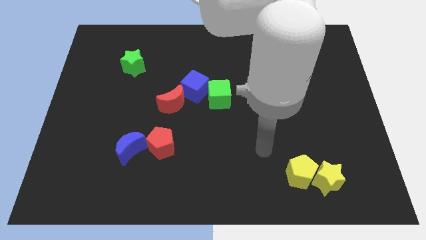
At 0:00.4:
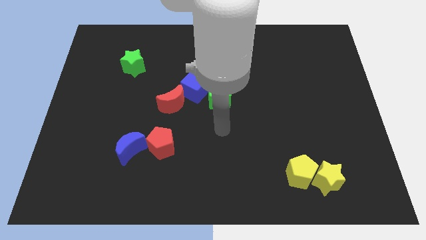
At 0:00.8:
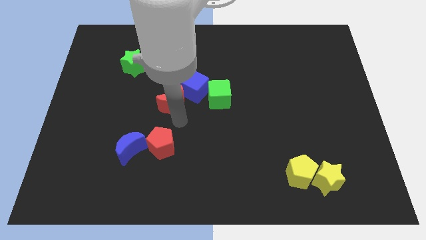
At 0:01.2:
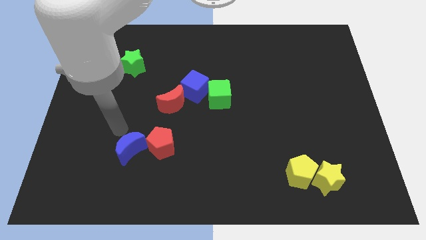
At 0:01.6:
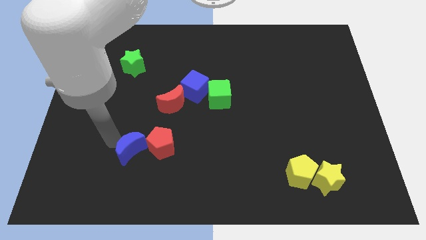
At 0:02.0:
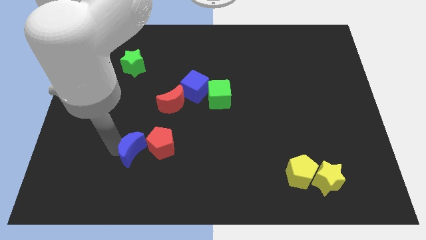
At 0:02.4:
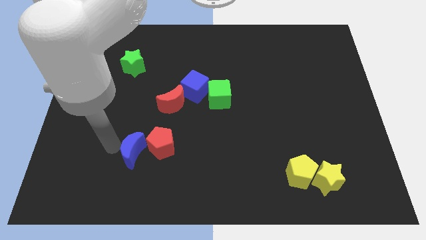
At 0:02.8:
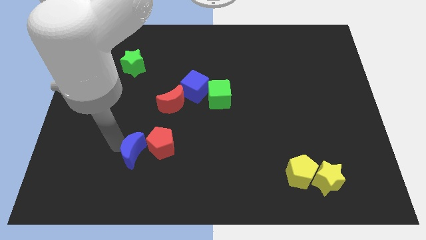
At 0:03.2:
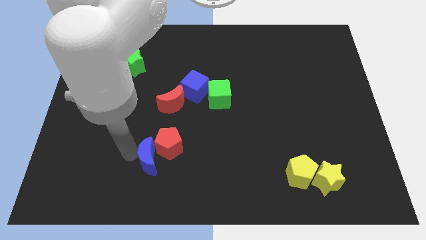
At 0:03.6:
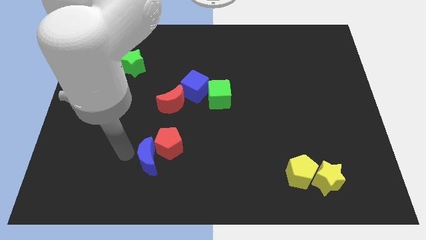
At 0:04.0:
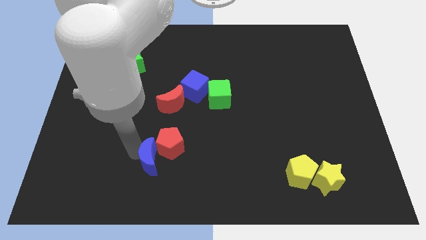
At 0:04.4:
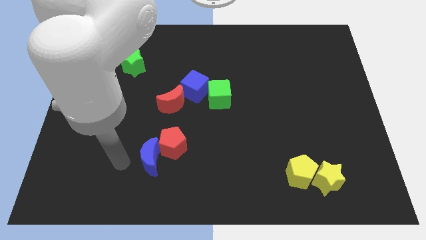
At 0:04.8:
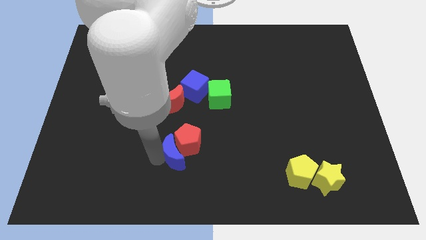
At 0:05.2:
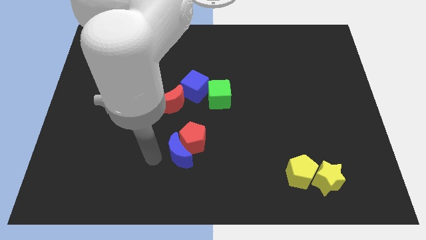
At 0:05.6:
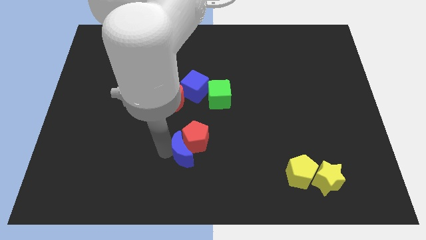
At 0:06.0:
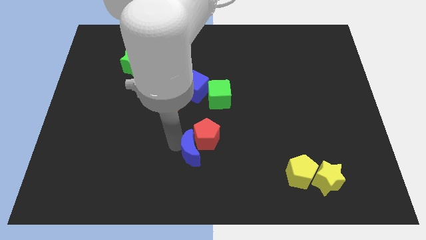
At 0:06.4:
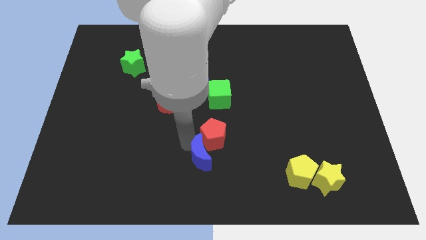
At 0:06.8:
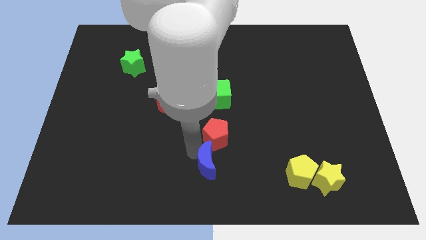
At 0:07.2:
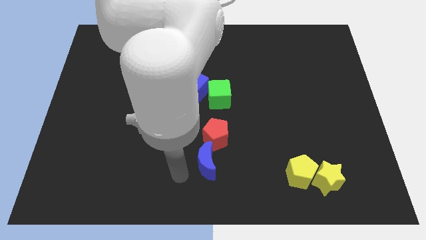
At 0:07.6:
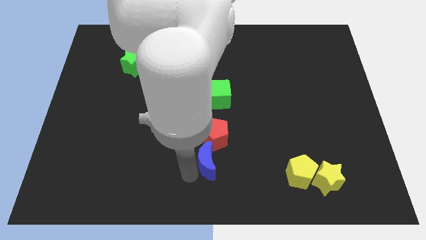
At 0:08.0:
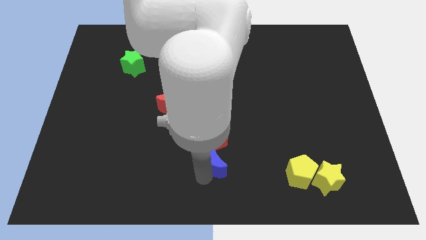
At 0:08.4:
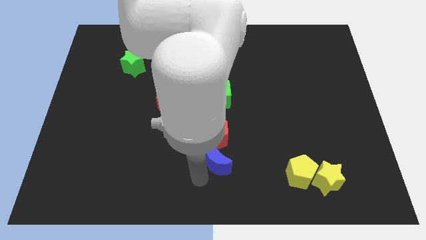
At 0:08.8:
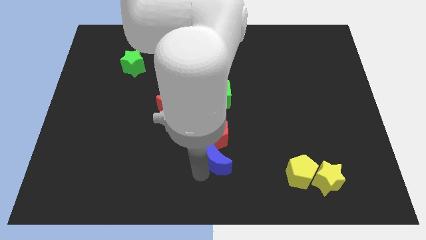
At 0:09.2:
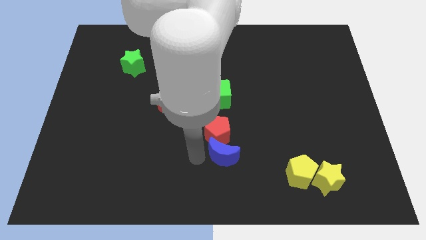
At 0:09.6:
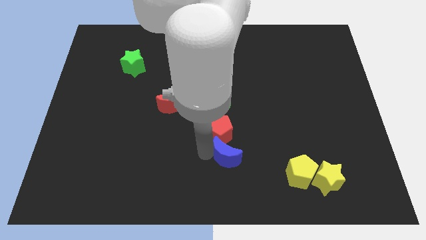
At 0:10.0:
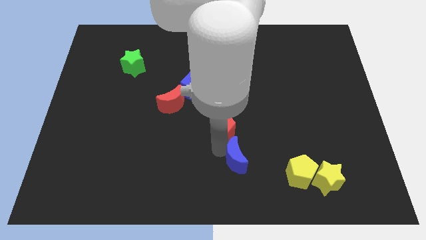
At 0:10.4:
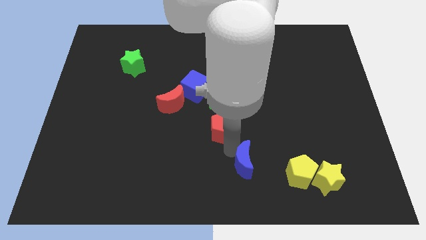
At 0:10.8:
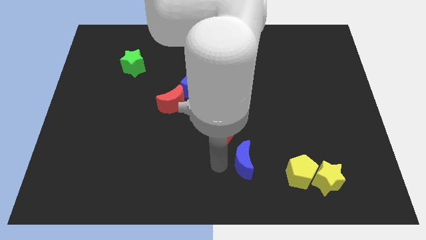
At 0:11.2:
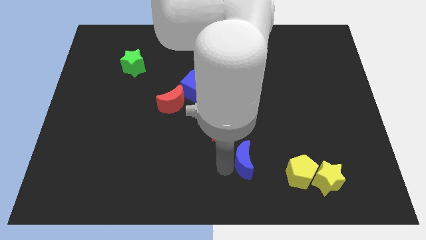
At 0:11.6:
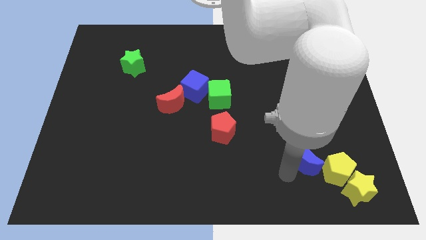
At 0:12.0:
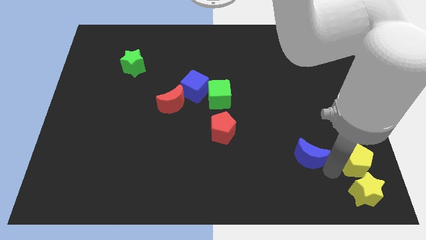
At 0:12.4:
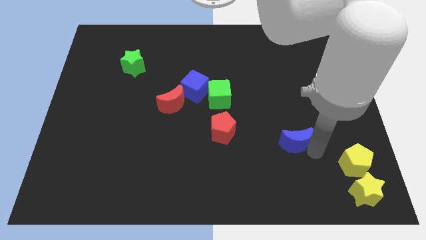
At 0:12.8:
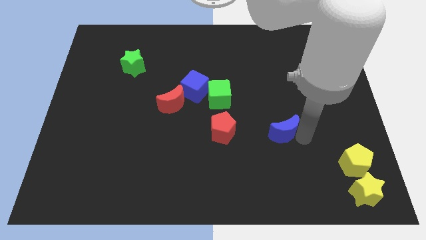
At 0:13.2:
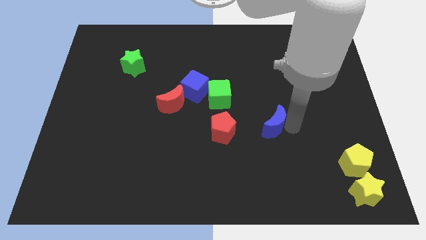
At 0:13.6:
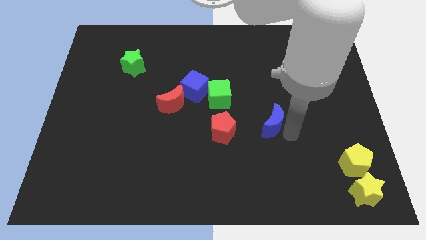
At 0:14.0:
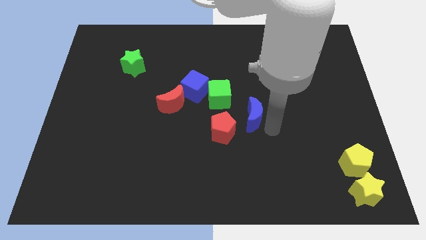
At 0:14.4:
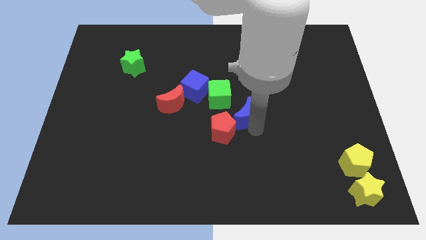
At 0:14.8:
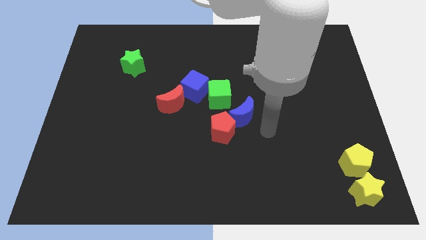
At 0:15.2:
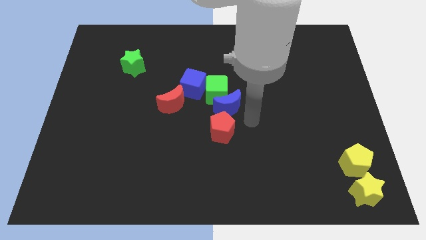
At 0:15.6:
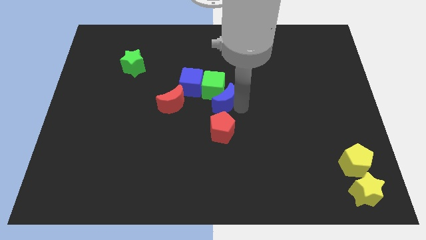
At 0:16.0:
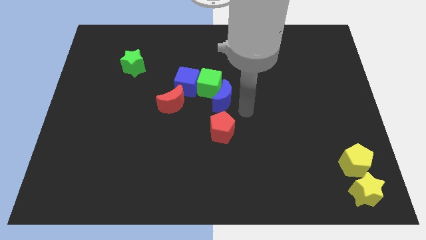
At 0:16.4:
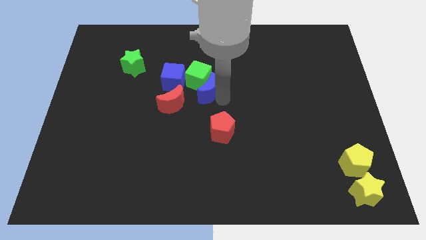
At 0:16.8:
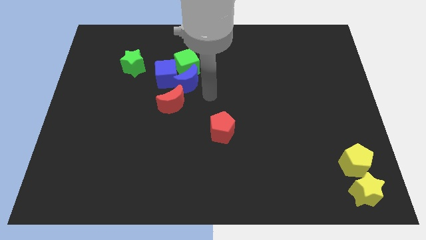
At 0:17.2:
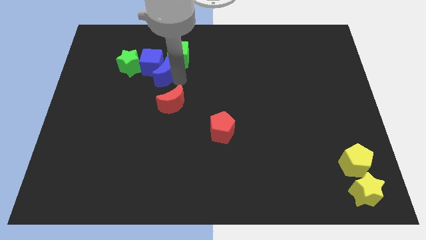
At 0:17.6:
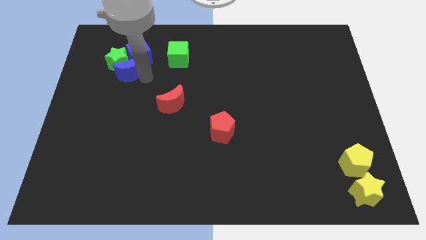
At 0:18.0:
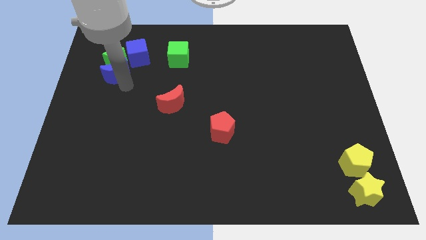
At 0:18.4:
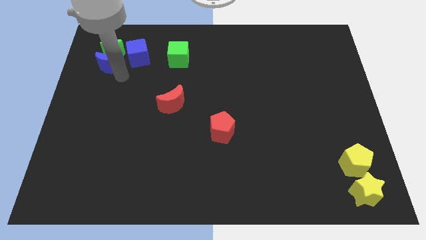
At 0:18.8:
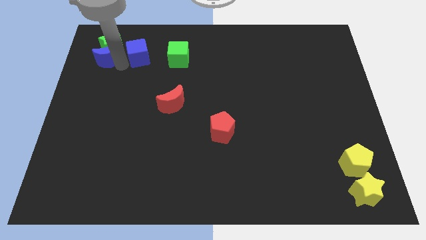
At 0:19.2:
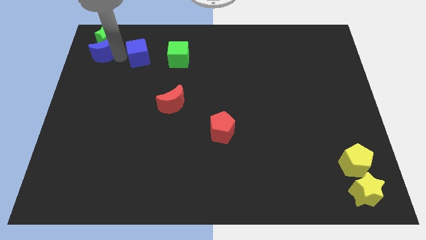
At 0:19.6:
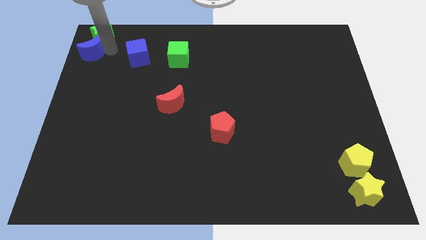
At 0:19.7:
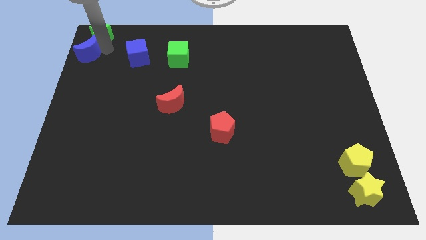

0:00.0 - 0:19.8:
push the blue moon to the top left

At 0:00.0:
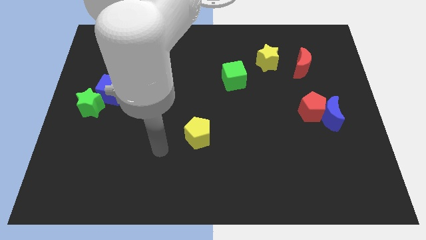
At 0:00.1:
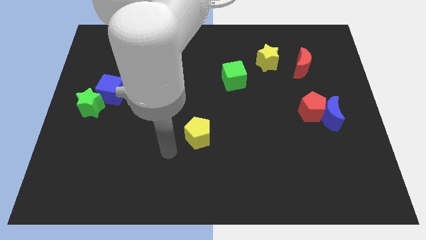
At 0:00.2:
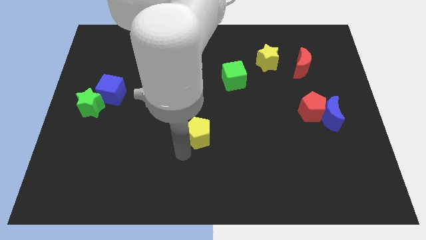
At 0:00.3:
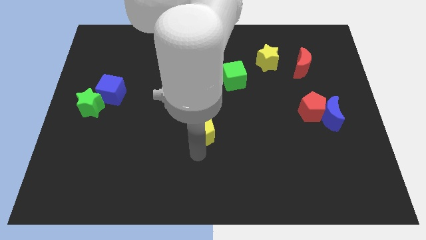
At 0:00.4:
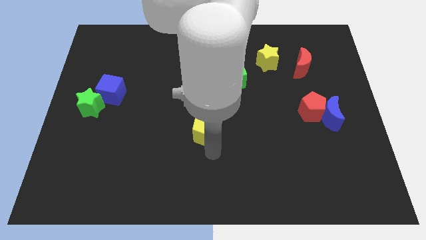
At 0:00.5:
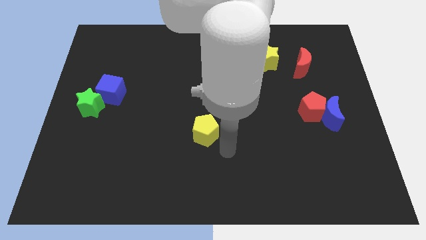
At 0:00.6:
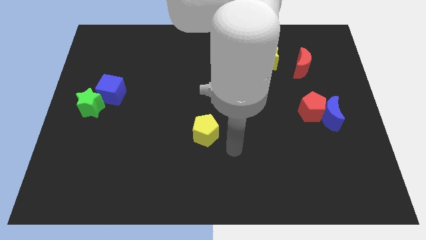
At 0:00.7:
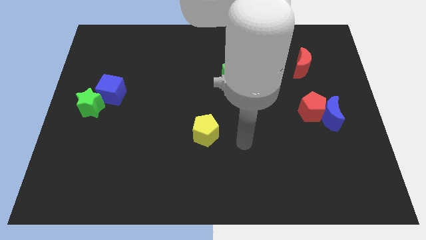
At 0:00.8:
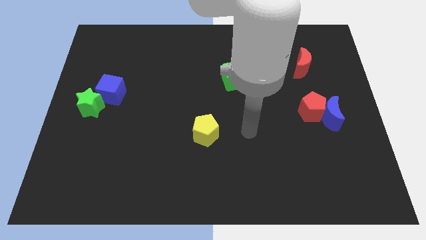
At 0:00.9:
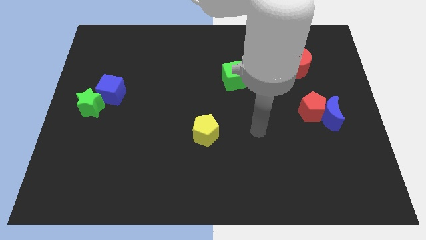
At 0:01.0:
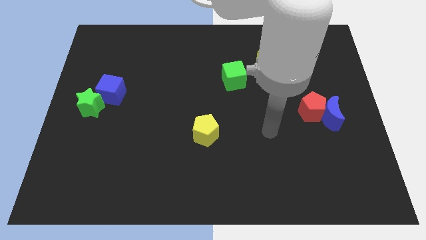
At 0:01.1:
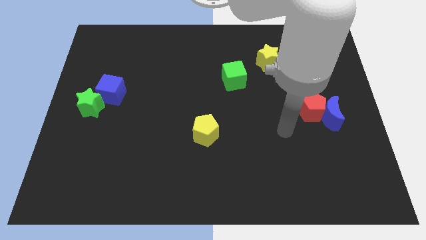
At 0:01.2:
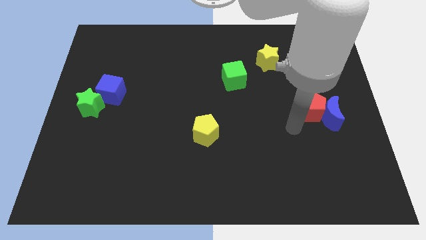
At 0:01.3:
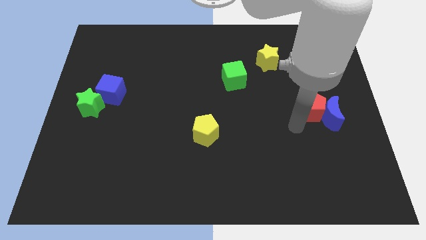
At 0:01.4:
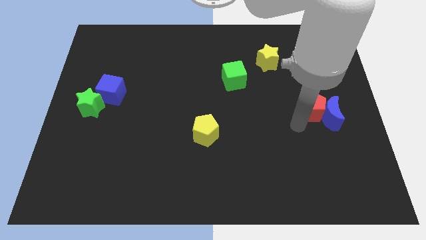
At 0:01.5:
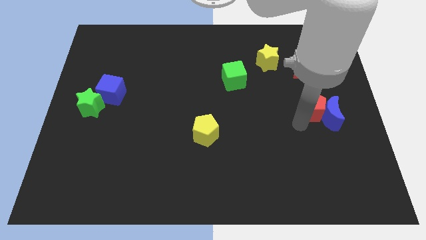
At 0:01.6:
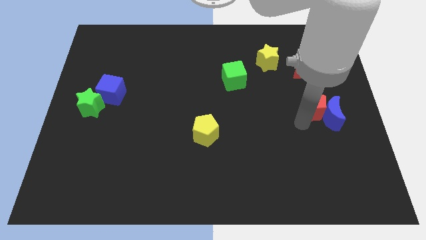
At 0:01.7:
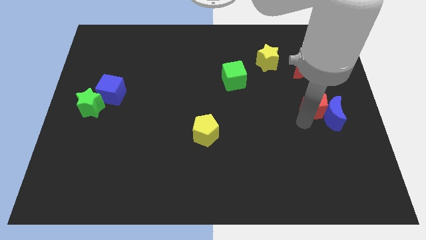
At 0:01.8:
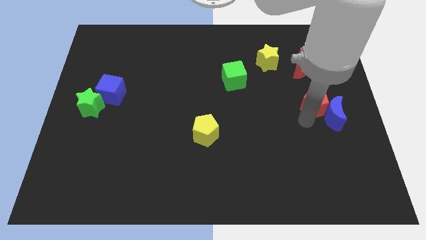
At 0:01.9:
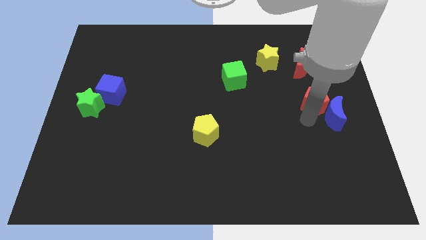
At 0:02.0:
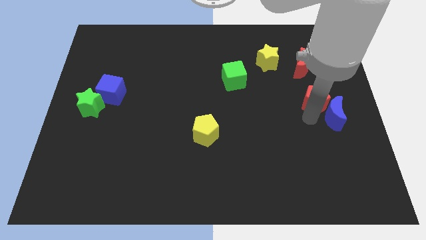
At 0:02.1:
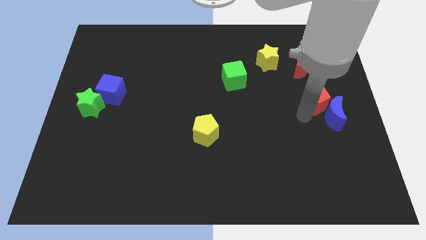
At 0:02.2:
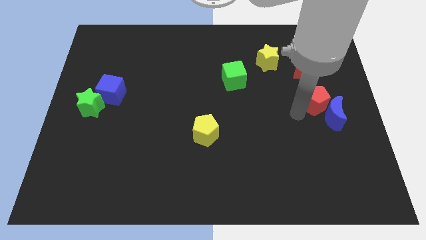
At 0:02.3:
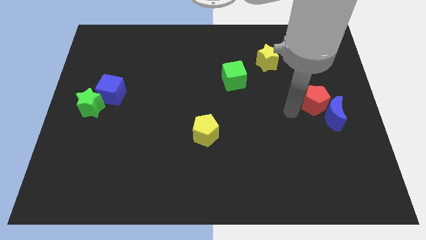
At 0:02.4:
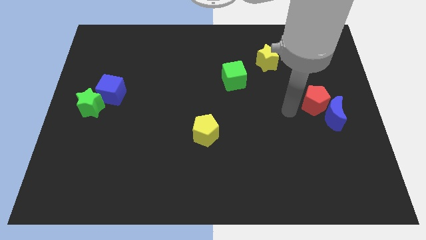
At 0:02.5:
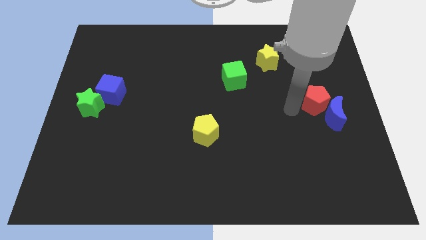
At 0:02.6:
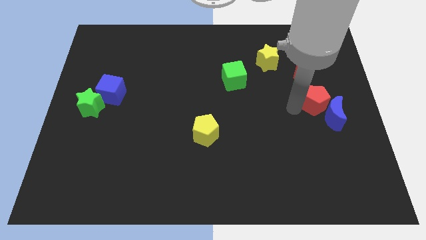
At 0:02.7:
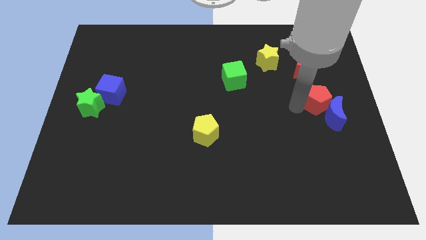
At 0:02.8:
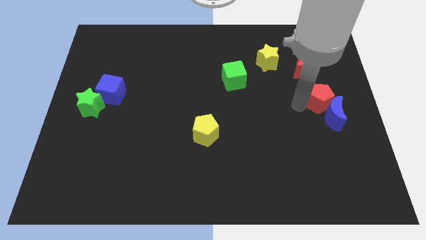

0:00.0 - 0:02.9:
move the red pentagon to the center right
